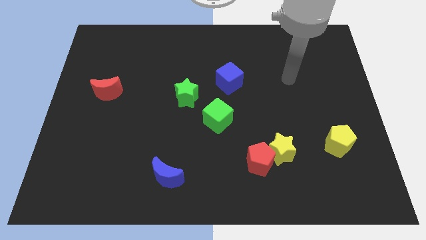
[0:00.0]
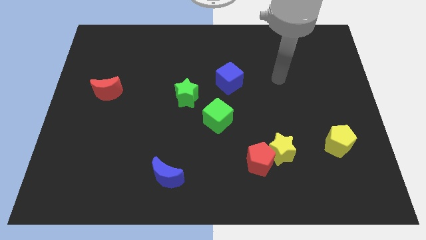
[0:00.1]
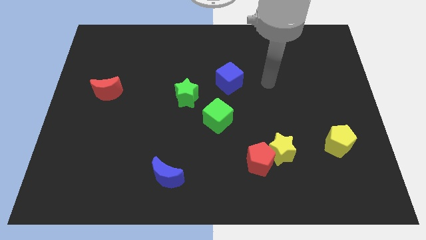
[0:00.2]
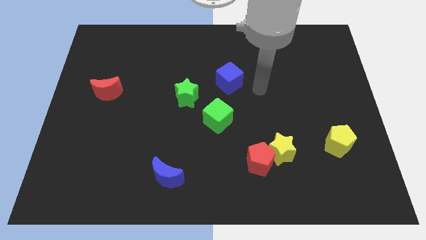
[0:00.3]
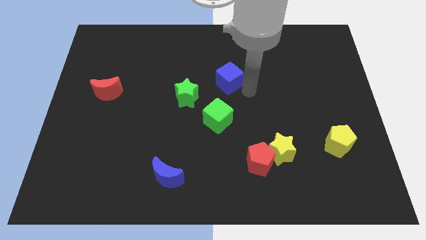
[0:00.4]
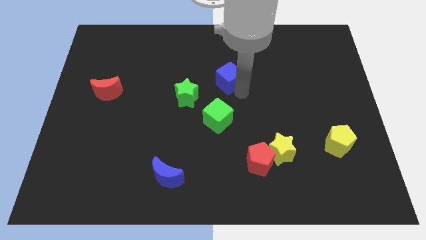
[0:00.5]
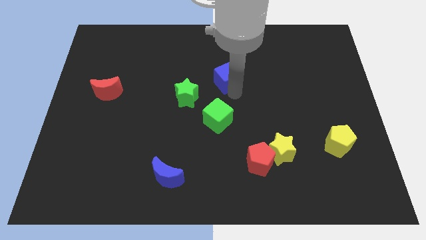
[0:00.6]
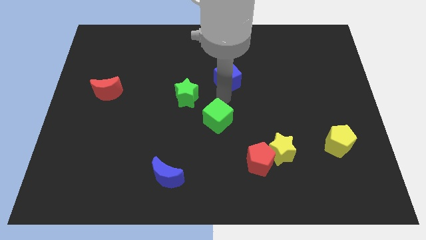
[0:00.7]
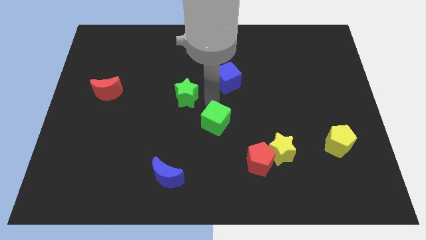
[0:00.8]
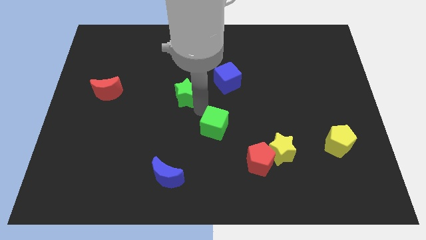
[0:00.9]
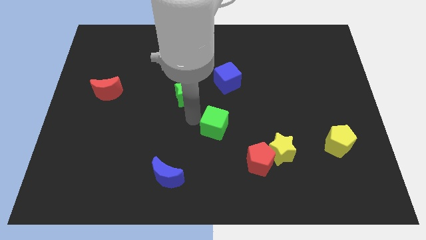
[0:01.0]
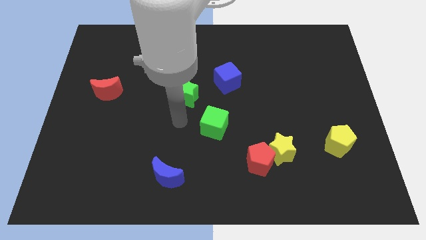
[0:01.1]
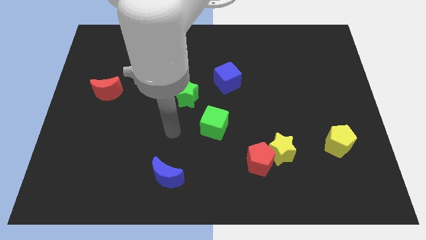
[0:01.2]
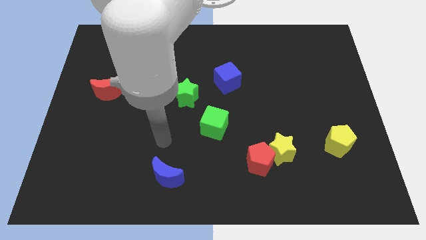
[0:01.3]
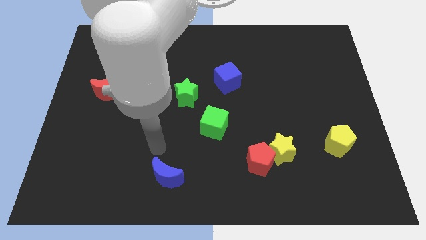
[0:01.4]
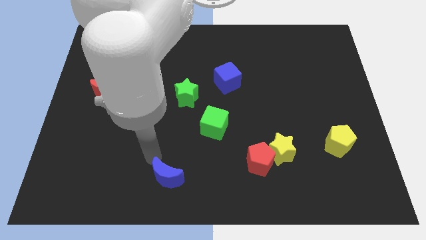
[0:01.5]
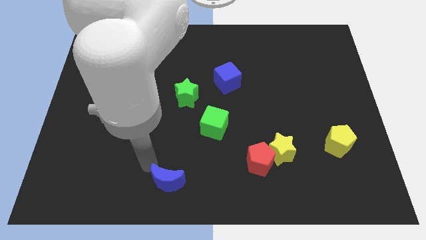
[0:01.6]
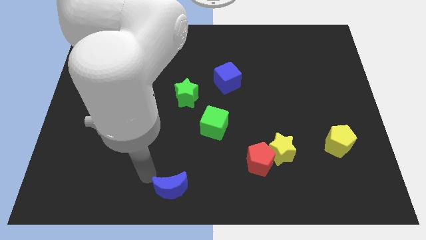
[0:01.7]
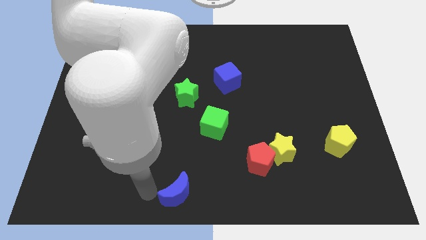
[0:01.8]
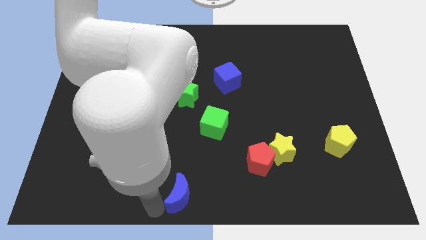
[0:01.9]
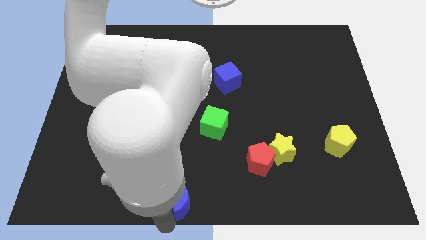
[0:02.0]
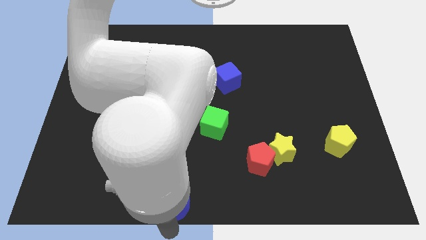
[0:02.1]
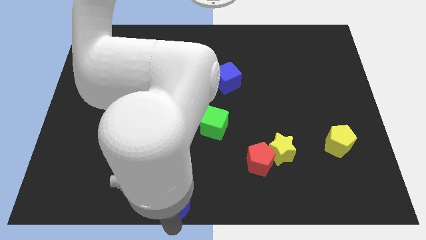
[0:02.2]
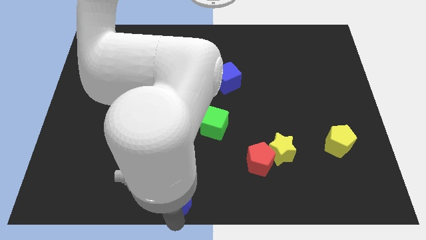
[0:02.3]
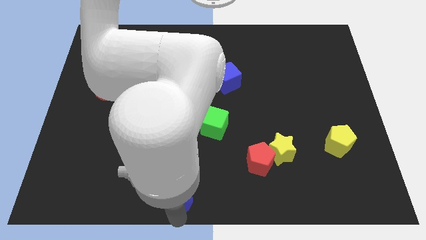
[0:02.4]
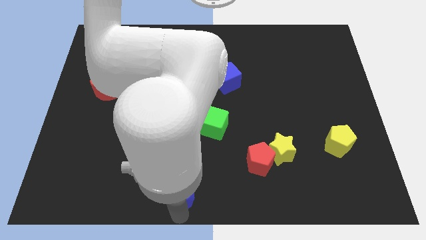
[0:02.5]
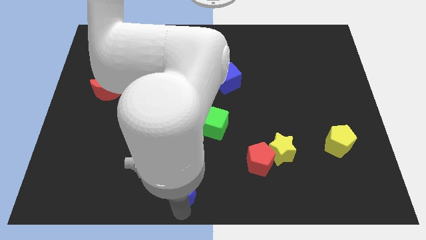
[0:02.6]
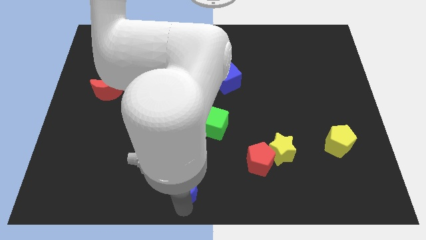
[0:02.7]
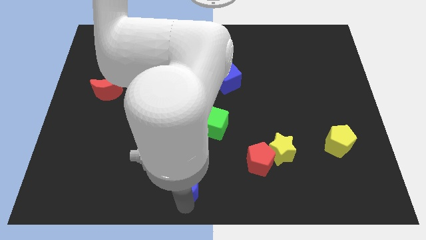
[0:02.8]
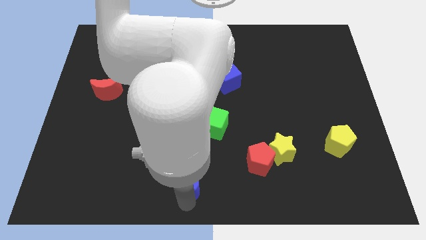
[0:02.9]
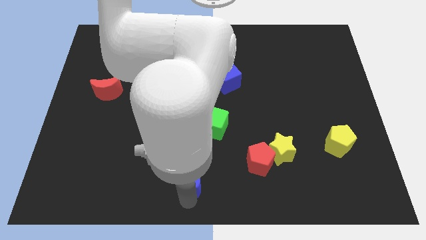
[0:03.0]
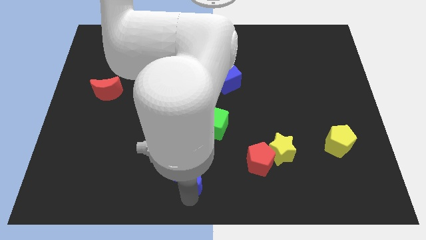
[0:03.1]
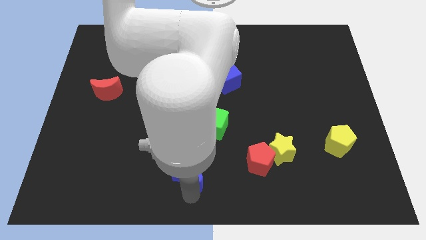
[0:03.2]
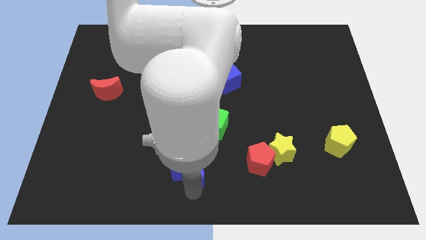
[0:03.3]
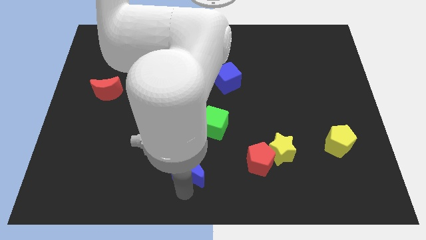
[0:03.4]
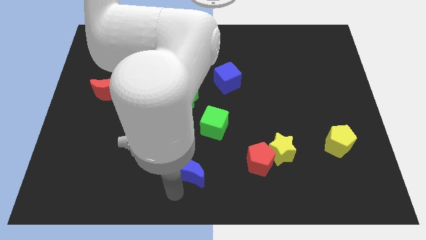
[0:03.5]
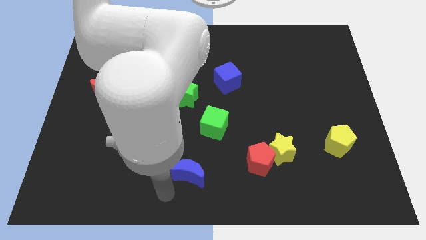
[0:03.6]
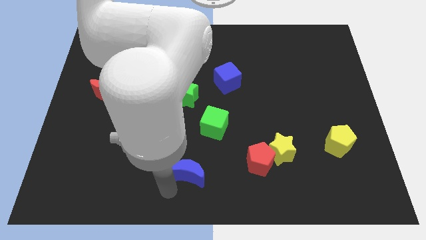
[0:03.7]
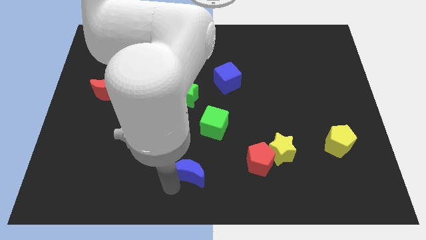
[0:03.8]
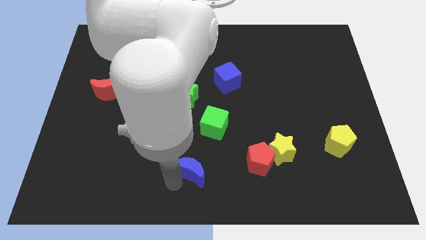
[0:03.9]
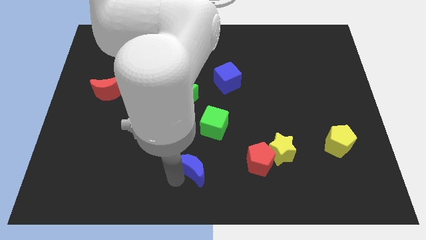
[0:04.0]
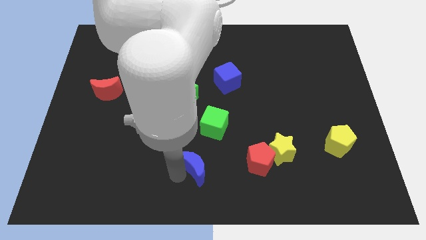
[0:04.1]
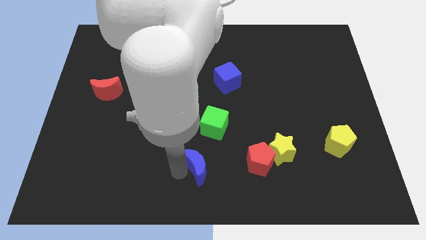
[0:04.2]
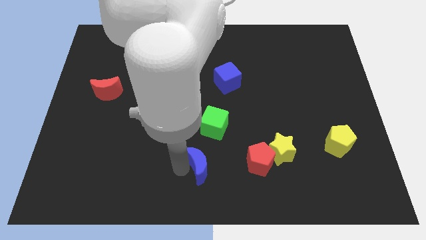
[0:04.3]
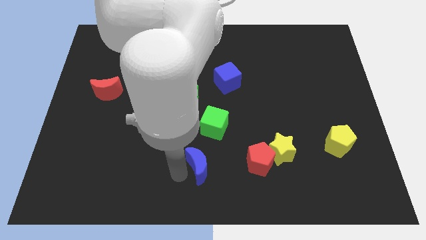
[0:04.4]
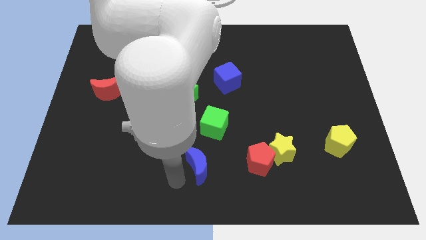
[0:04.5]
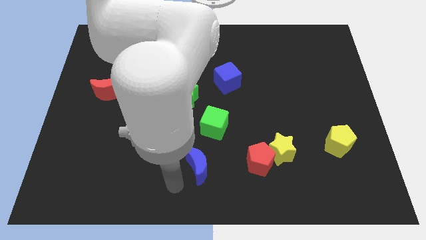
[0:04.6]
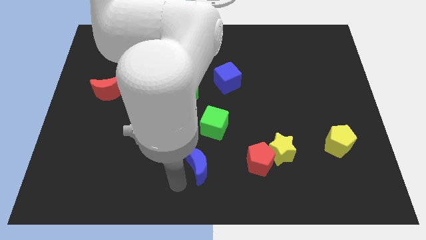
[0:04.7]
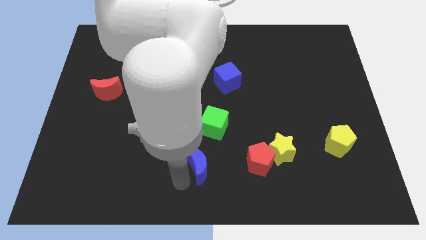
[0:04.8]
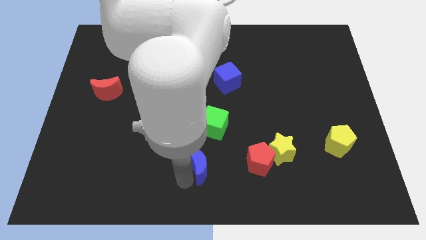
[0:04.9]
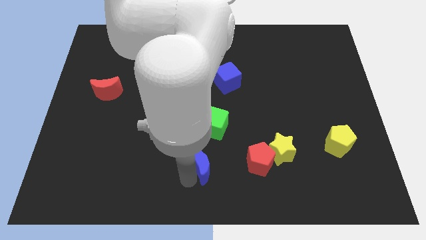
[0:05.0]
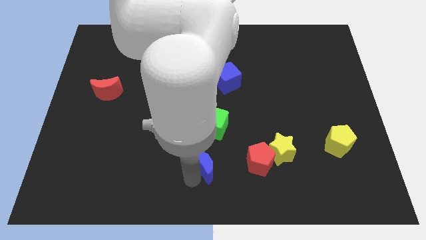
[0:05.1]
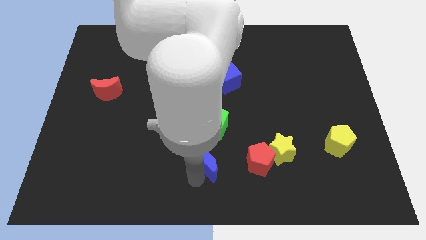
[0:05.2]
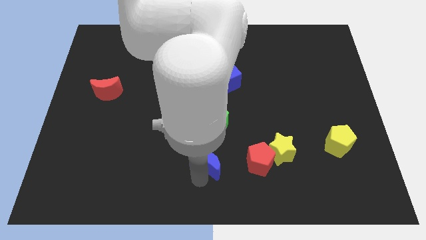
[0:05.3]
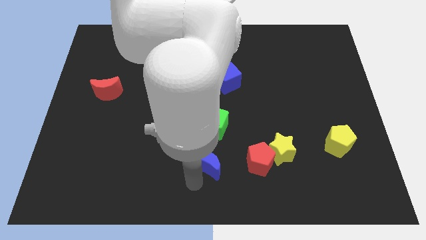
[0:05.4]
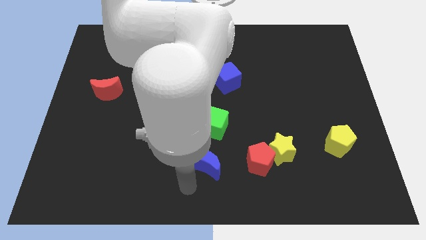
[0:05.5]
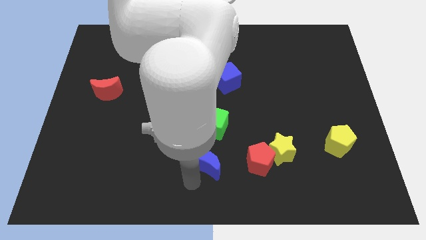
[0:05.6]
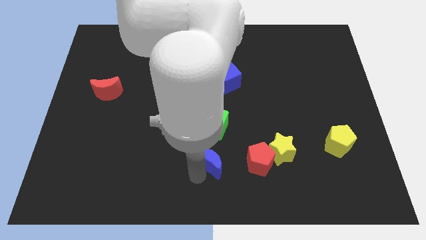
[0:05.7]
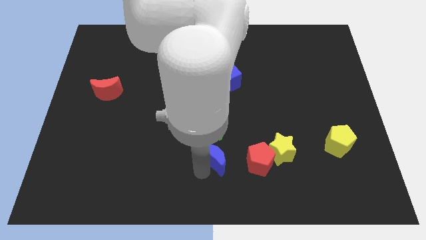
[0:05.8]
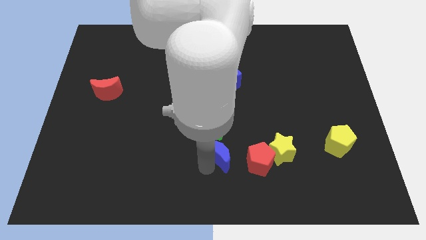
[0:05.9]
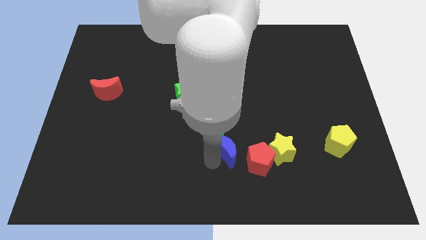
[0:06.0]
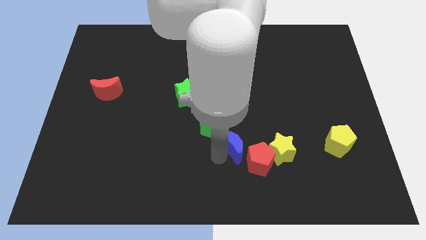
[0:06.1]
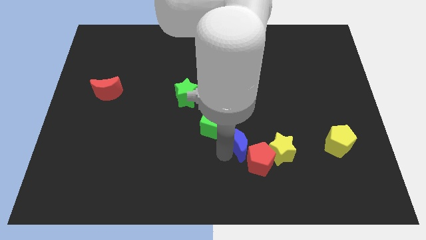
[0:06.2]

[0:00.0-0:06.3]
slide the blue moon to the top of the red pentagon
